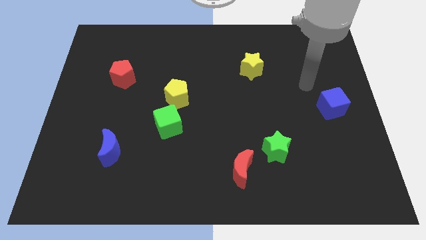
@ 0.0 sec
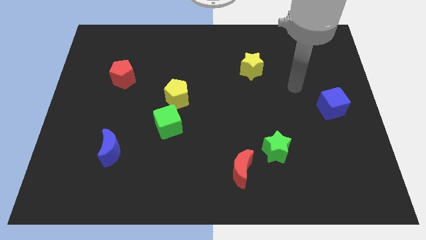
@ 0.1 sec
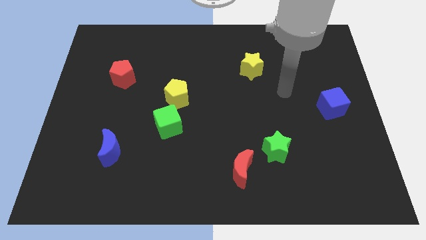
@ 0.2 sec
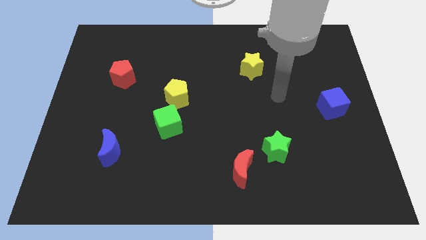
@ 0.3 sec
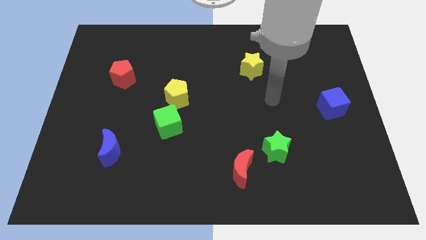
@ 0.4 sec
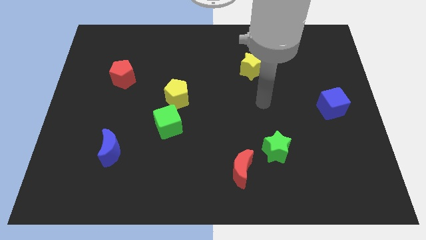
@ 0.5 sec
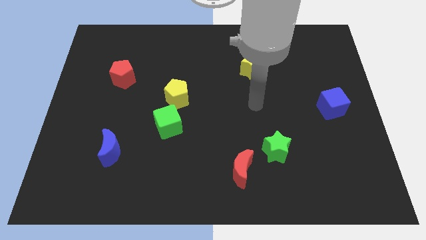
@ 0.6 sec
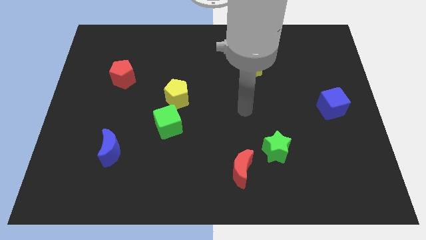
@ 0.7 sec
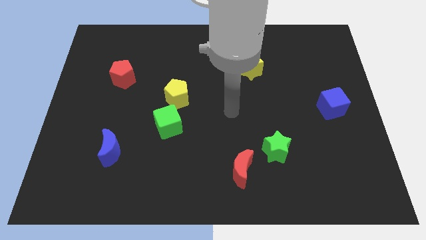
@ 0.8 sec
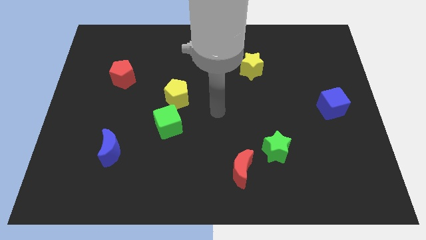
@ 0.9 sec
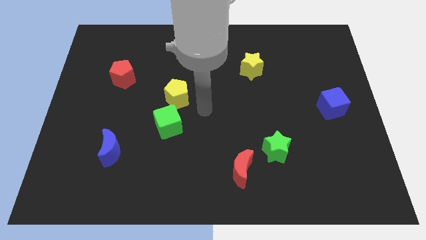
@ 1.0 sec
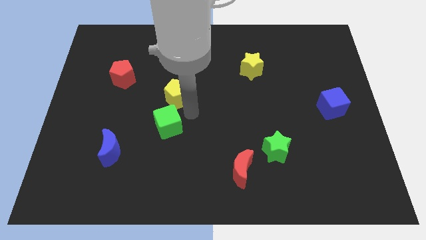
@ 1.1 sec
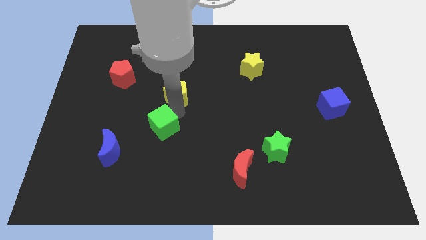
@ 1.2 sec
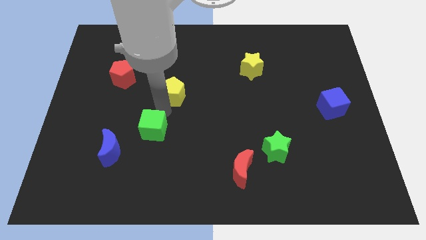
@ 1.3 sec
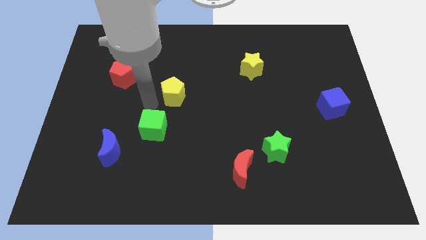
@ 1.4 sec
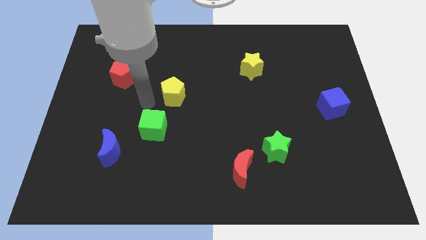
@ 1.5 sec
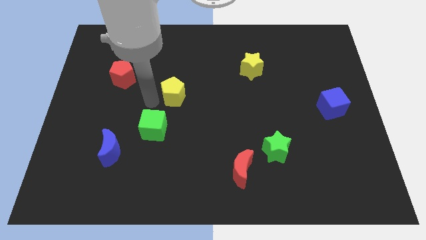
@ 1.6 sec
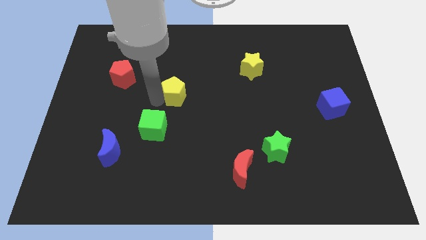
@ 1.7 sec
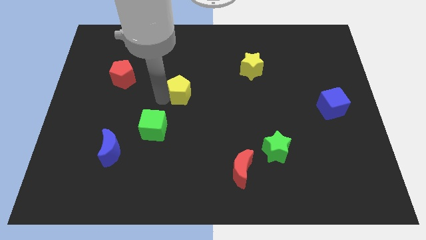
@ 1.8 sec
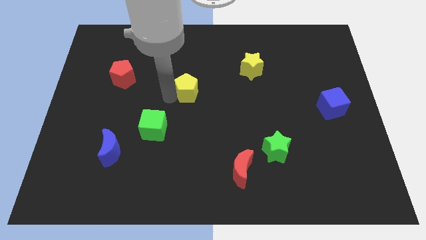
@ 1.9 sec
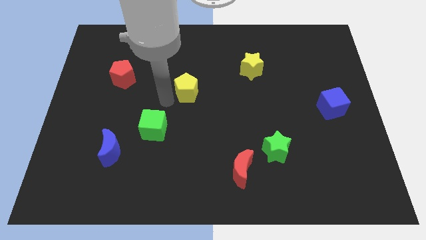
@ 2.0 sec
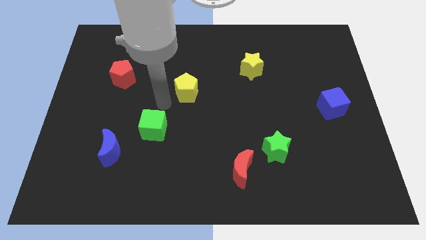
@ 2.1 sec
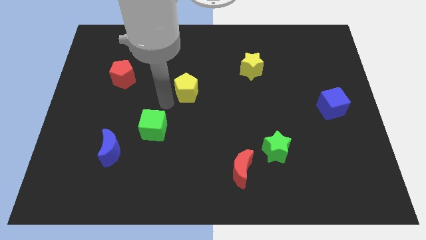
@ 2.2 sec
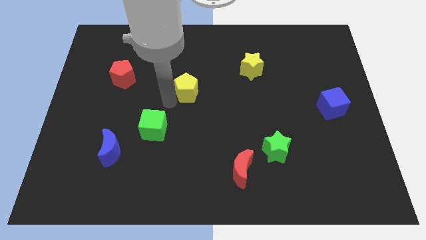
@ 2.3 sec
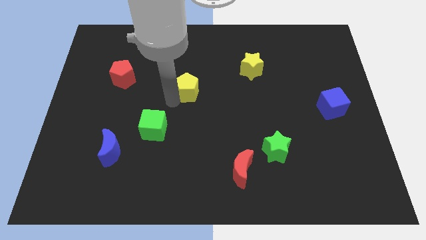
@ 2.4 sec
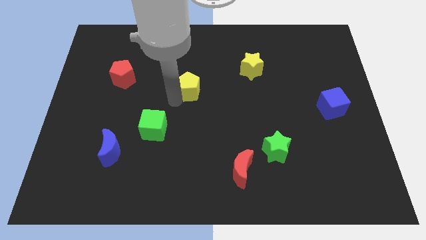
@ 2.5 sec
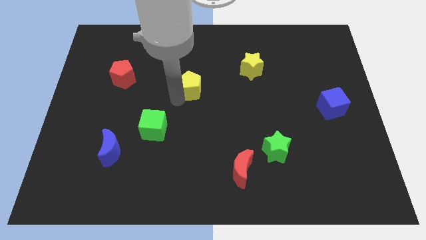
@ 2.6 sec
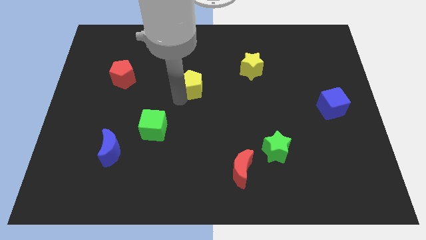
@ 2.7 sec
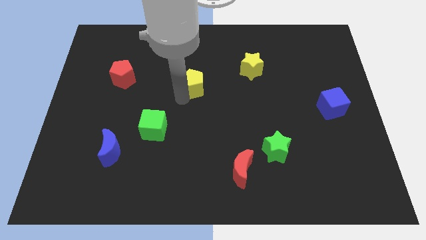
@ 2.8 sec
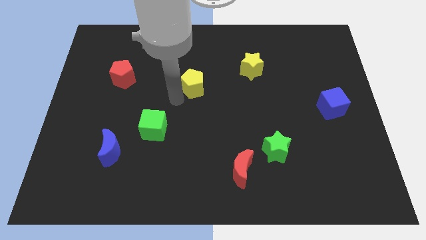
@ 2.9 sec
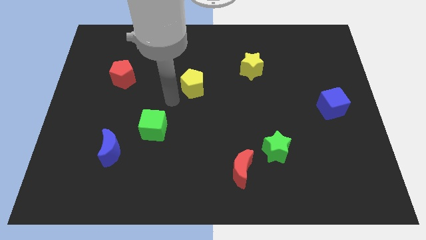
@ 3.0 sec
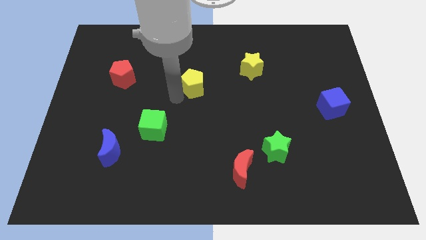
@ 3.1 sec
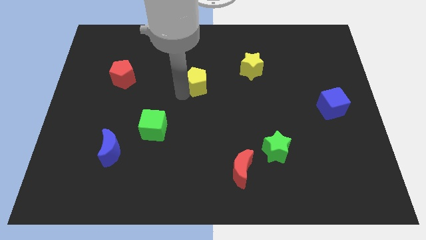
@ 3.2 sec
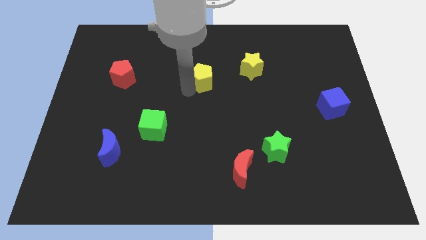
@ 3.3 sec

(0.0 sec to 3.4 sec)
push the yellow pentagon up and to the right diagonally slightly

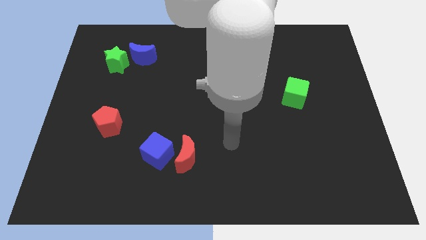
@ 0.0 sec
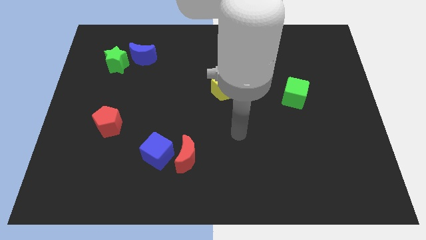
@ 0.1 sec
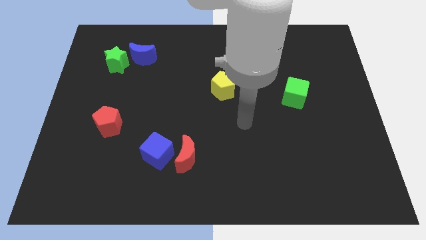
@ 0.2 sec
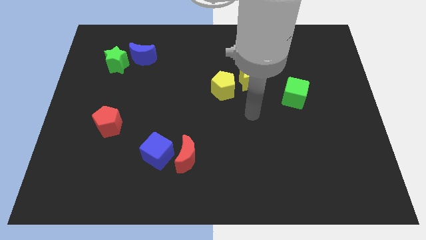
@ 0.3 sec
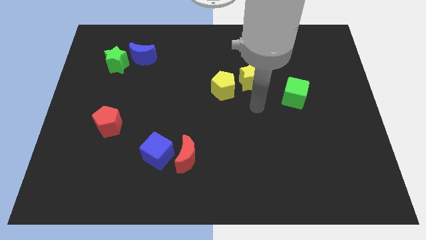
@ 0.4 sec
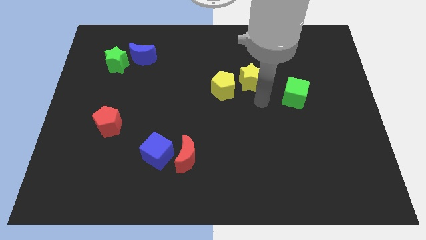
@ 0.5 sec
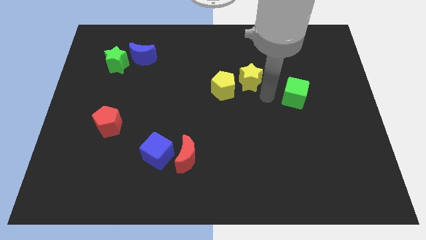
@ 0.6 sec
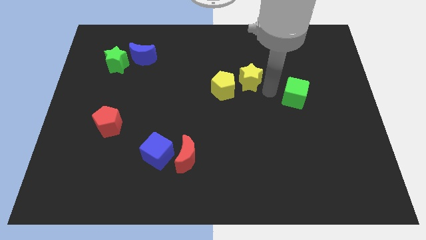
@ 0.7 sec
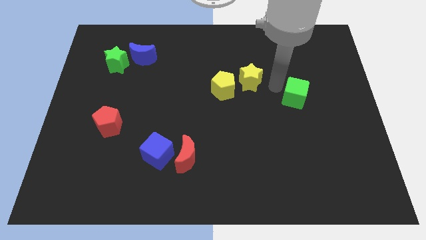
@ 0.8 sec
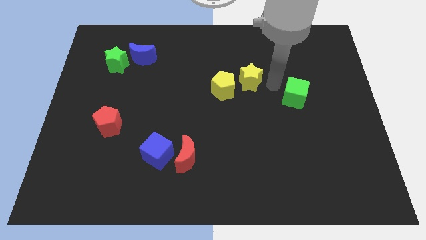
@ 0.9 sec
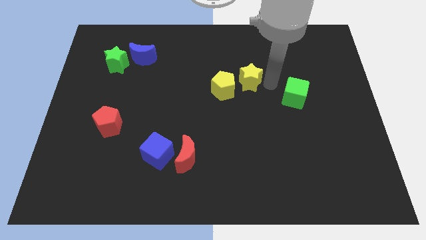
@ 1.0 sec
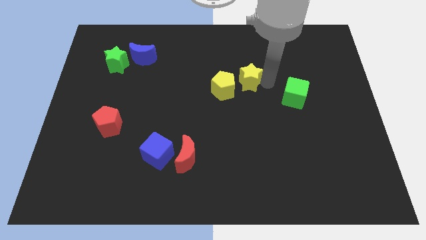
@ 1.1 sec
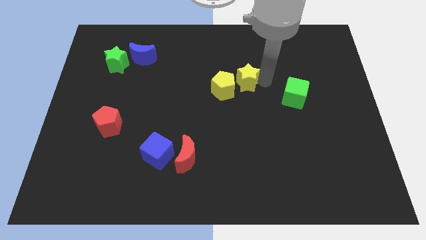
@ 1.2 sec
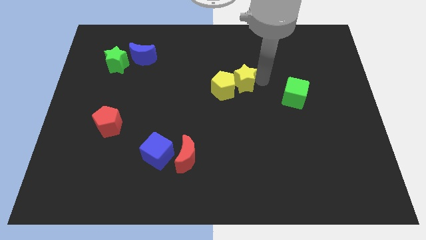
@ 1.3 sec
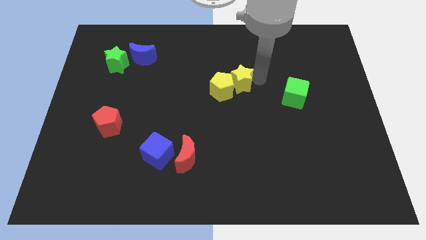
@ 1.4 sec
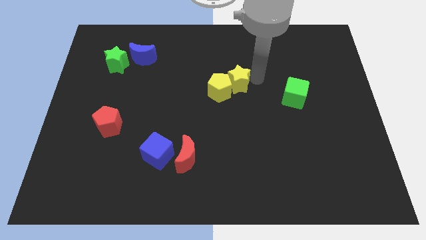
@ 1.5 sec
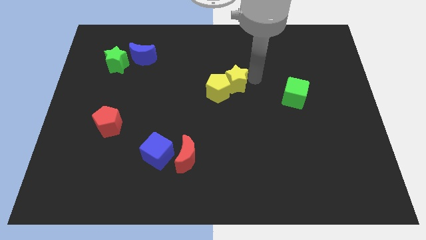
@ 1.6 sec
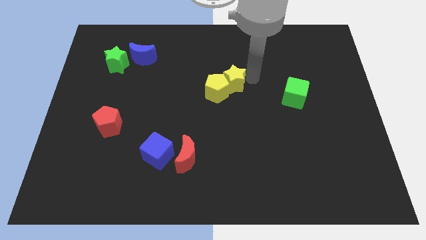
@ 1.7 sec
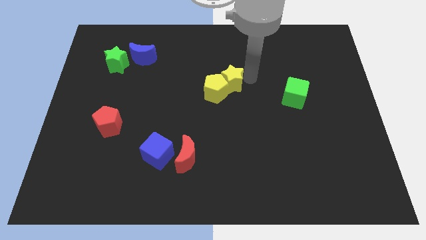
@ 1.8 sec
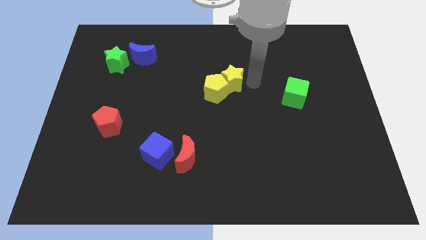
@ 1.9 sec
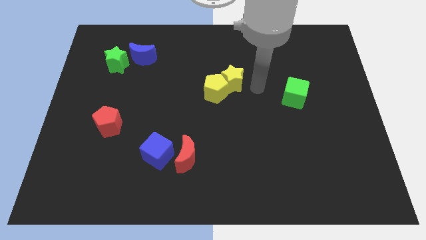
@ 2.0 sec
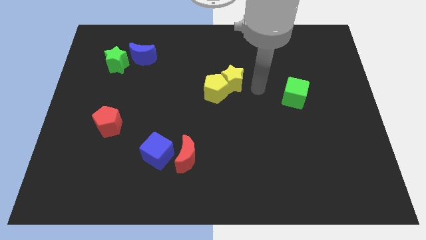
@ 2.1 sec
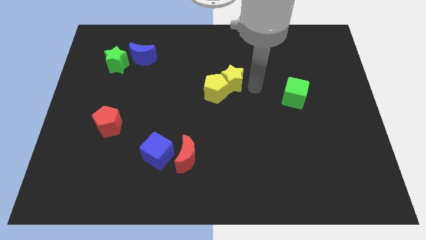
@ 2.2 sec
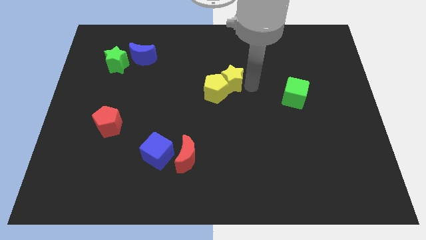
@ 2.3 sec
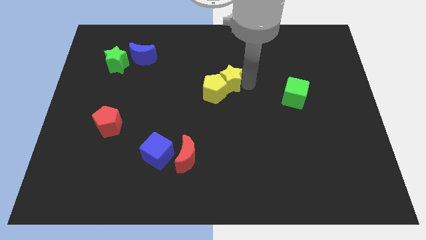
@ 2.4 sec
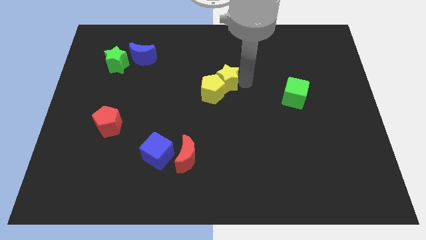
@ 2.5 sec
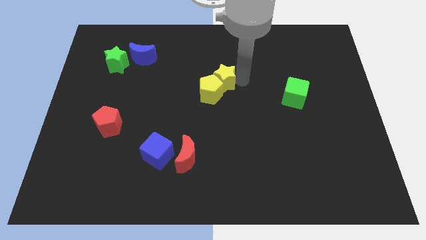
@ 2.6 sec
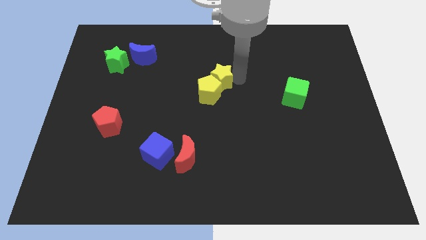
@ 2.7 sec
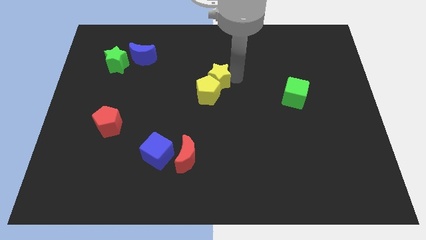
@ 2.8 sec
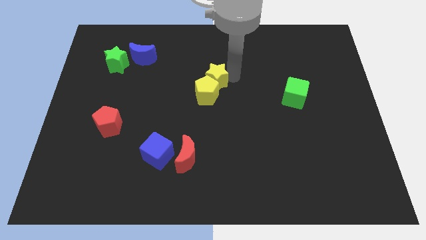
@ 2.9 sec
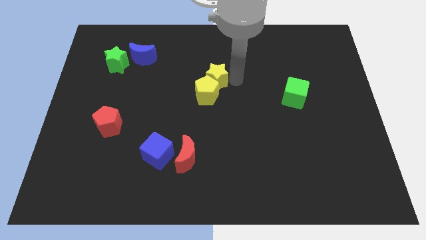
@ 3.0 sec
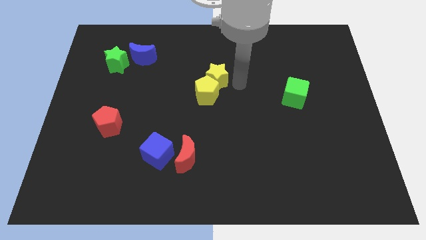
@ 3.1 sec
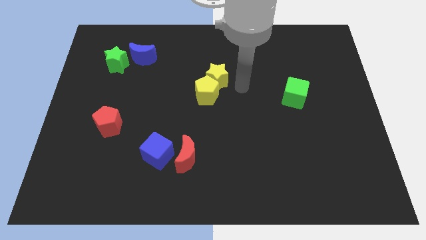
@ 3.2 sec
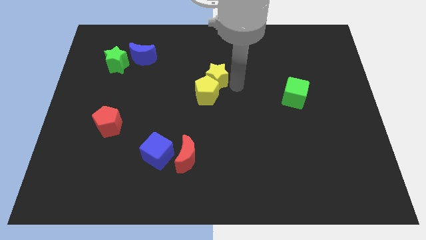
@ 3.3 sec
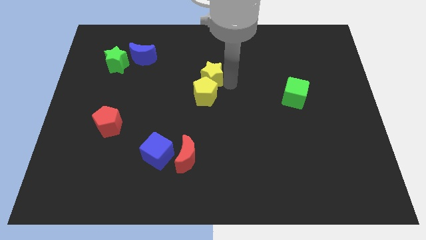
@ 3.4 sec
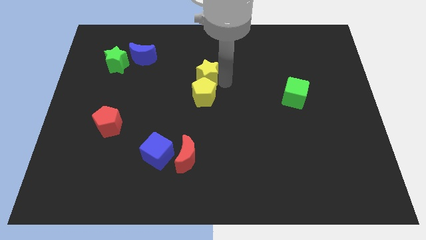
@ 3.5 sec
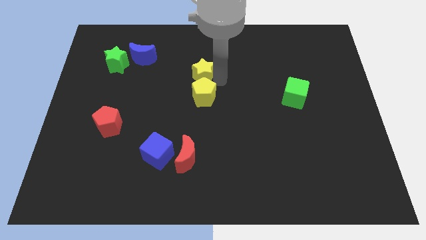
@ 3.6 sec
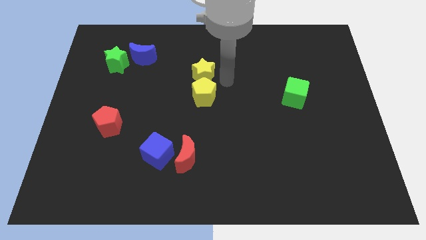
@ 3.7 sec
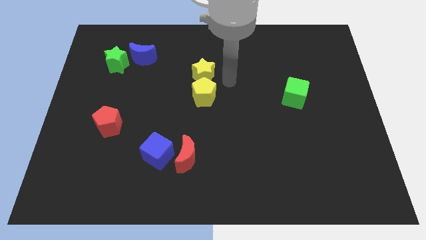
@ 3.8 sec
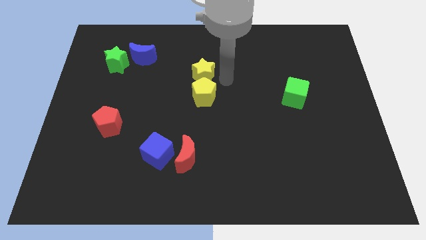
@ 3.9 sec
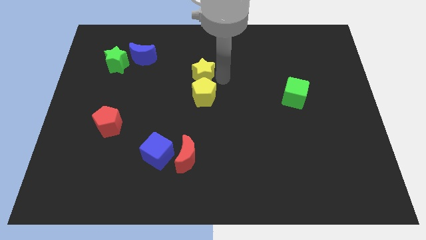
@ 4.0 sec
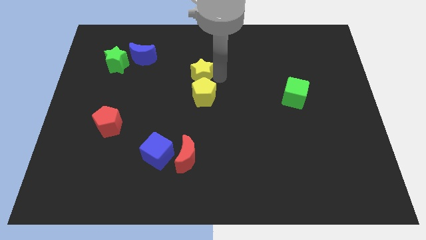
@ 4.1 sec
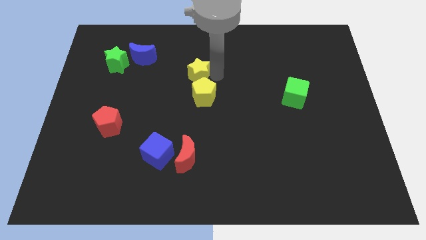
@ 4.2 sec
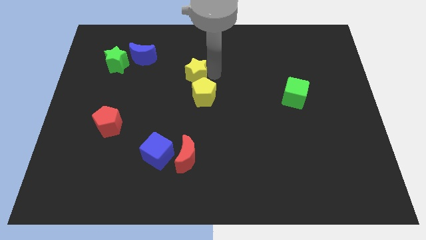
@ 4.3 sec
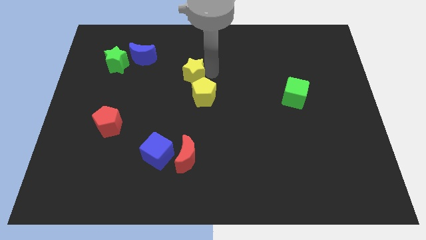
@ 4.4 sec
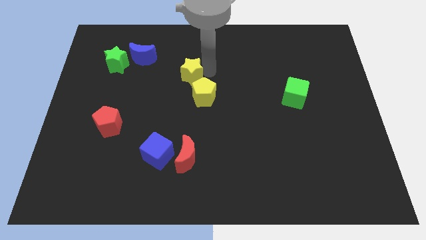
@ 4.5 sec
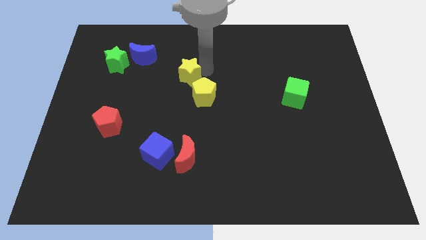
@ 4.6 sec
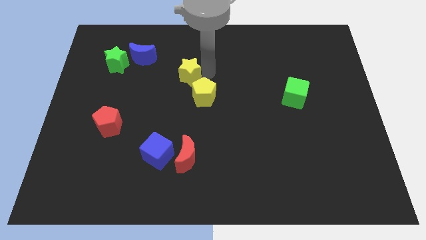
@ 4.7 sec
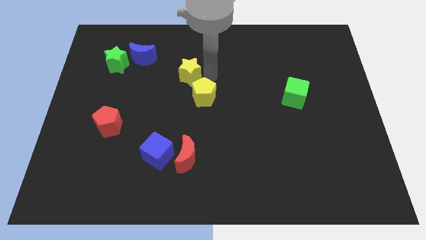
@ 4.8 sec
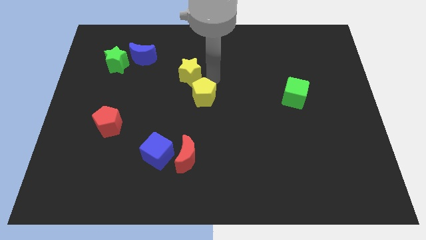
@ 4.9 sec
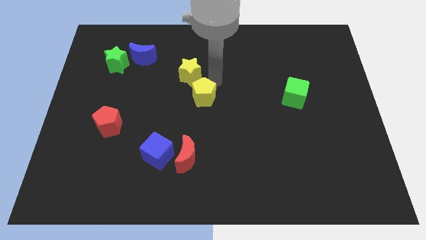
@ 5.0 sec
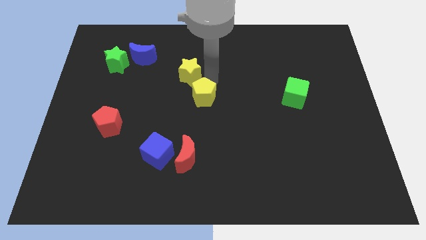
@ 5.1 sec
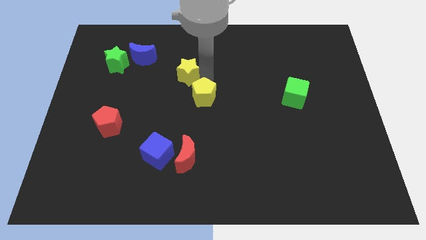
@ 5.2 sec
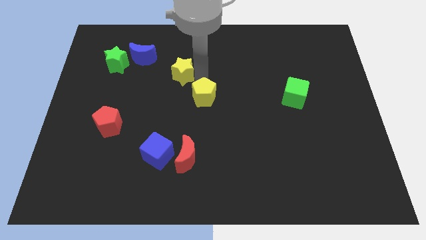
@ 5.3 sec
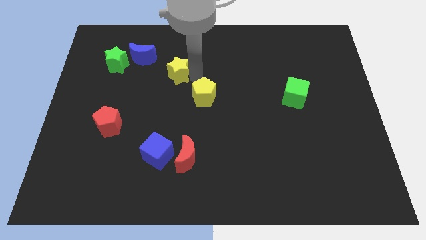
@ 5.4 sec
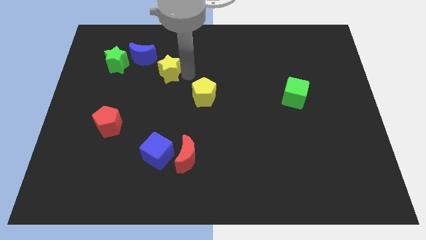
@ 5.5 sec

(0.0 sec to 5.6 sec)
push the yellow star to the left
